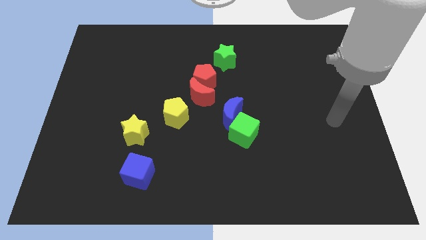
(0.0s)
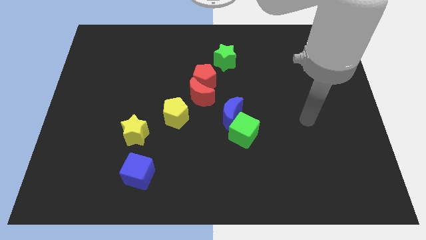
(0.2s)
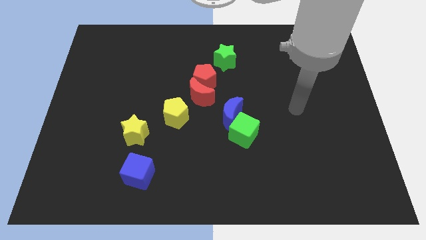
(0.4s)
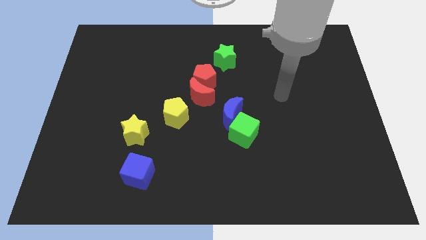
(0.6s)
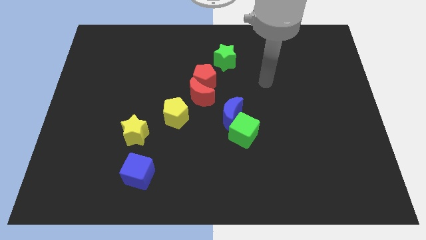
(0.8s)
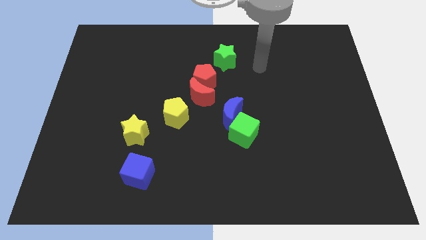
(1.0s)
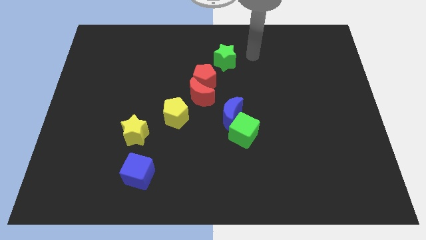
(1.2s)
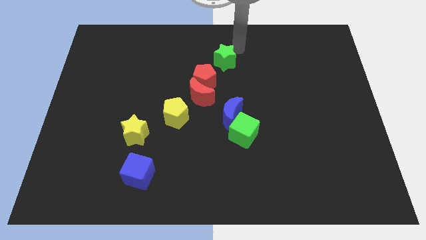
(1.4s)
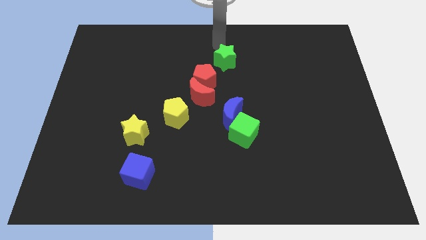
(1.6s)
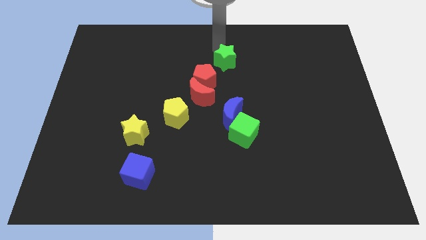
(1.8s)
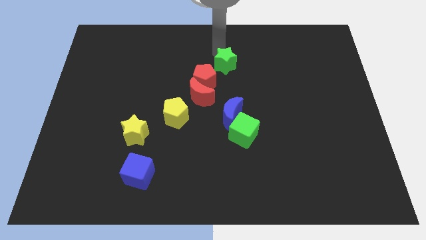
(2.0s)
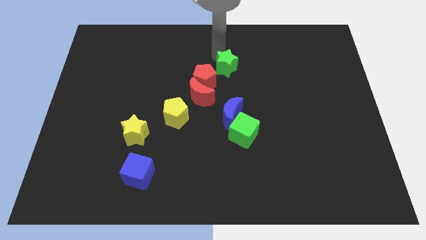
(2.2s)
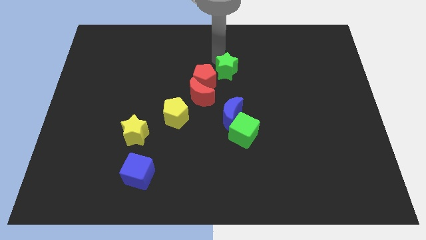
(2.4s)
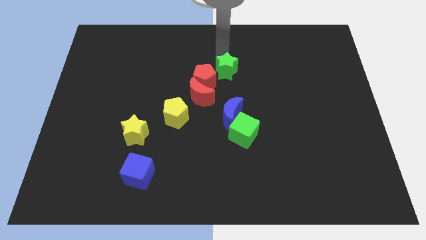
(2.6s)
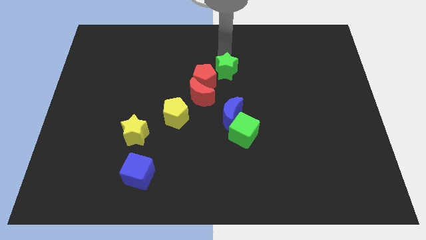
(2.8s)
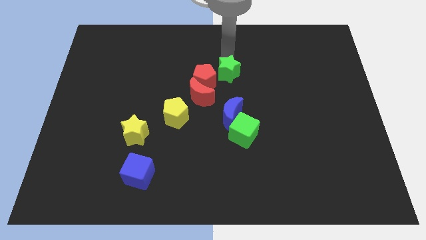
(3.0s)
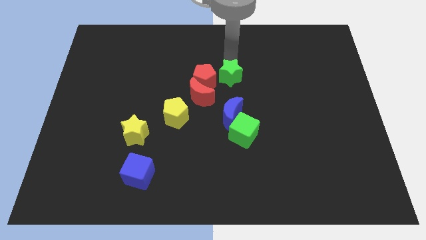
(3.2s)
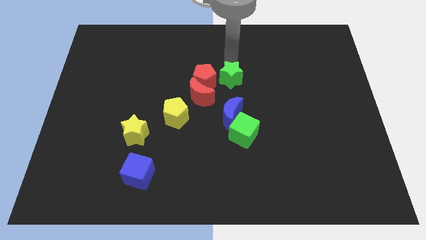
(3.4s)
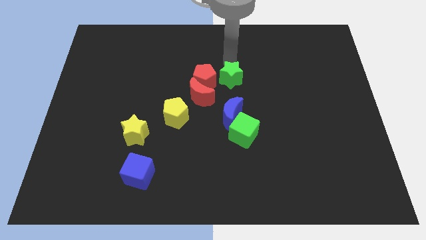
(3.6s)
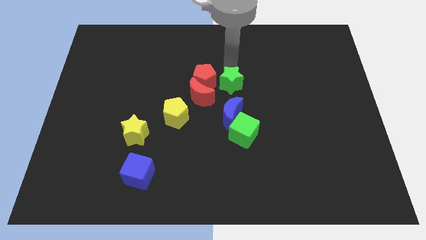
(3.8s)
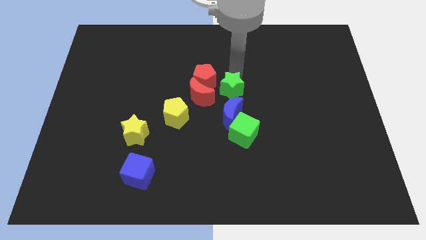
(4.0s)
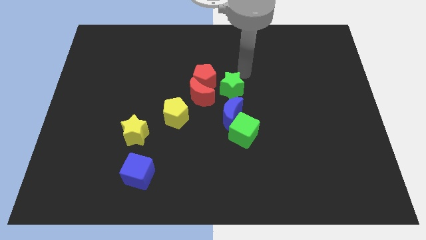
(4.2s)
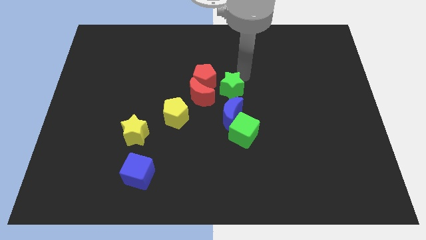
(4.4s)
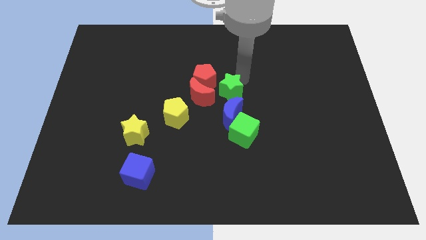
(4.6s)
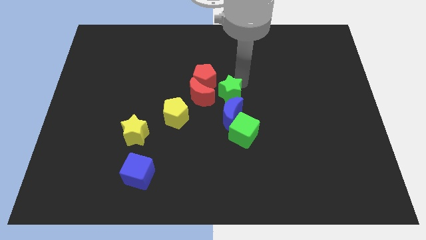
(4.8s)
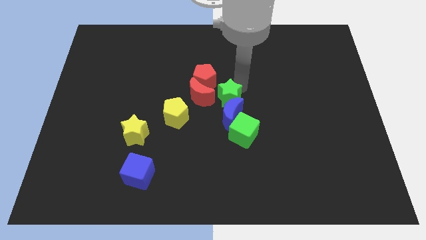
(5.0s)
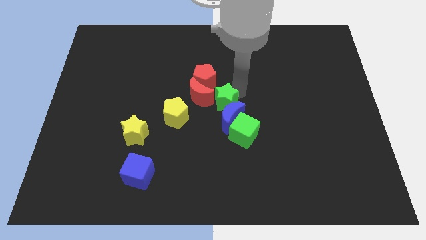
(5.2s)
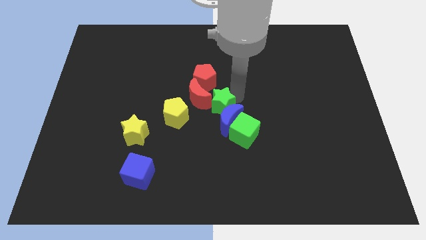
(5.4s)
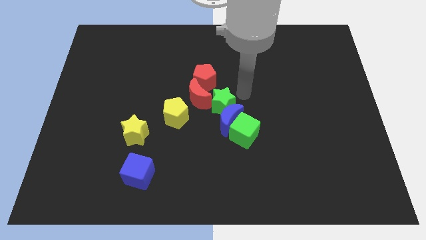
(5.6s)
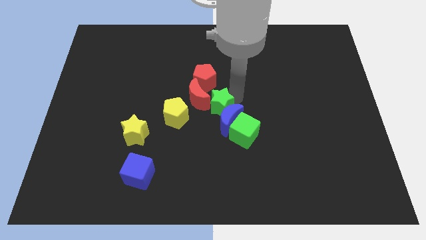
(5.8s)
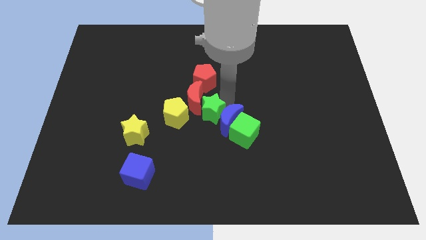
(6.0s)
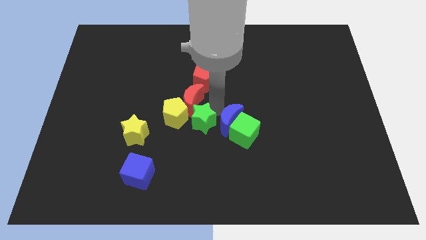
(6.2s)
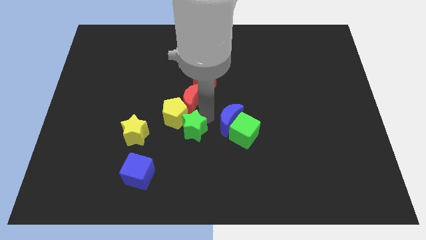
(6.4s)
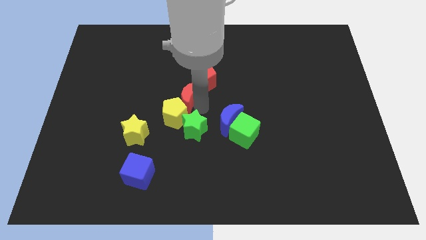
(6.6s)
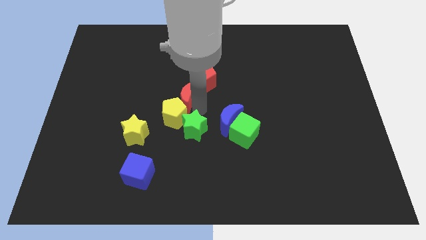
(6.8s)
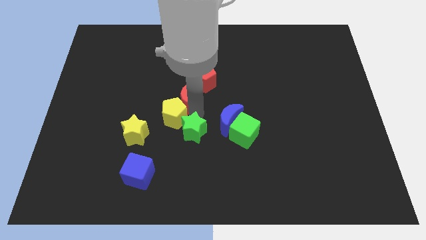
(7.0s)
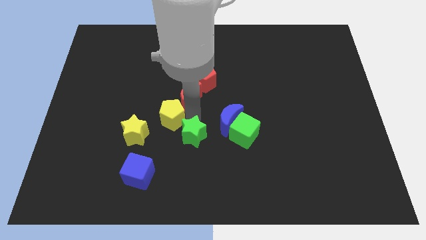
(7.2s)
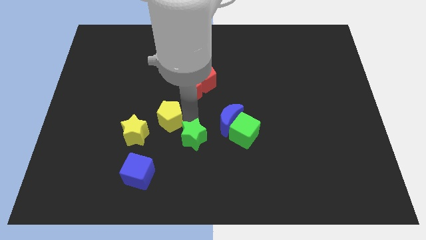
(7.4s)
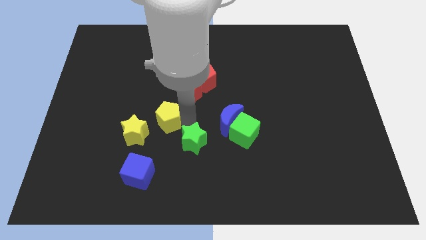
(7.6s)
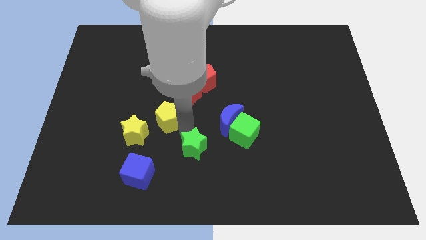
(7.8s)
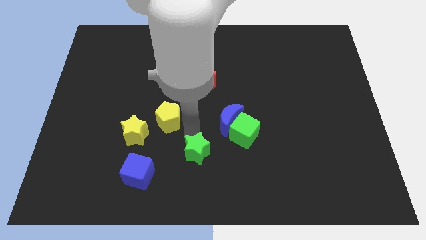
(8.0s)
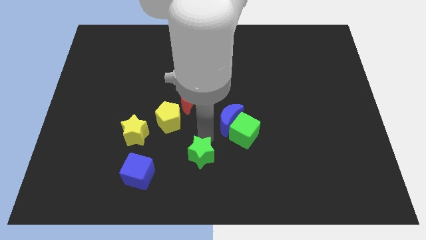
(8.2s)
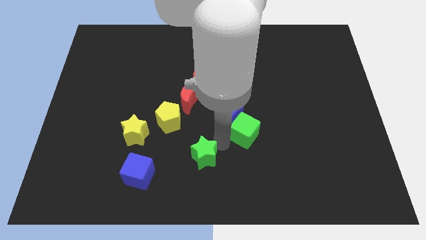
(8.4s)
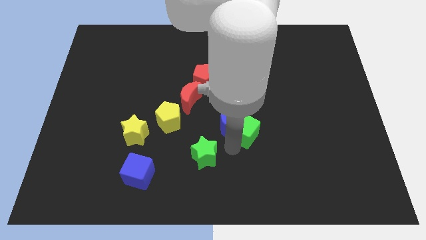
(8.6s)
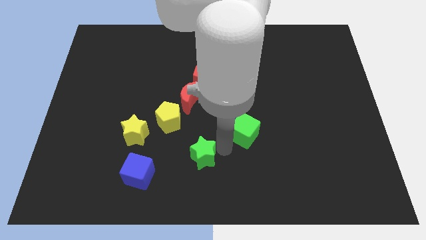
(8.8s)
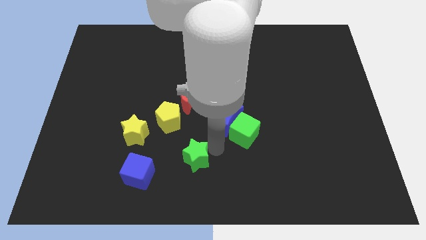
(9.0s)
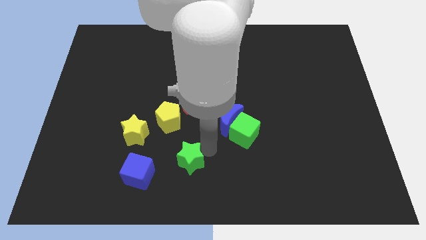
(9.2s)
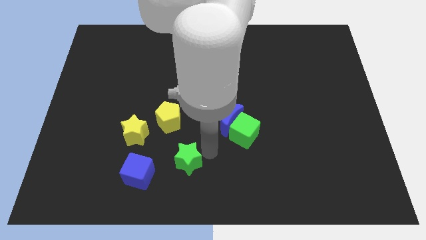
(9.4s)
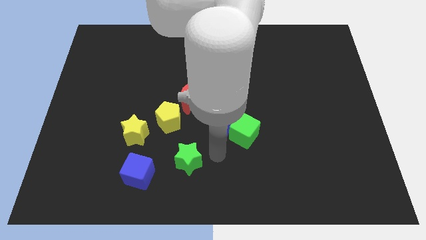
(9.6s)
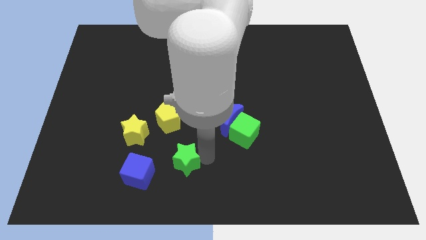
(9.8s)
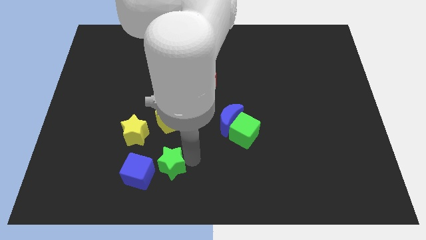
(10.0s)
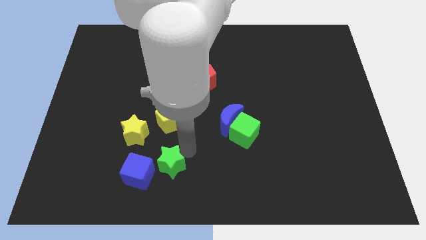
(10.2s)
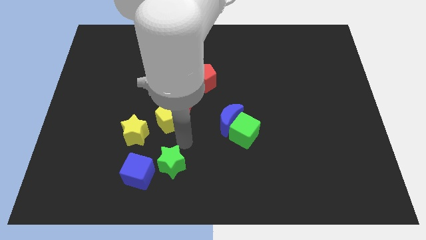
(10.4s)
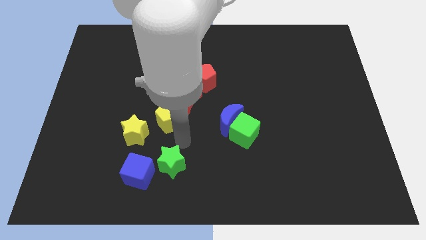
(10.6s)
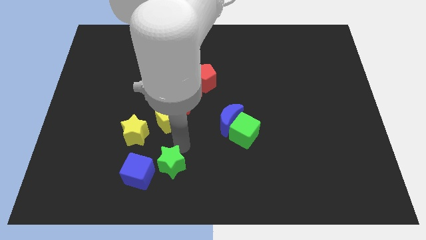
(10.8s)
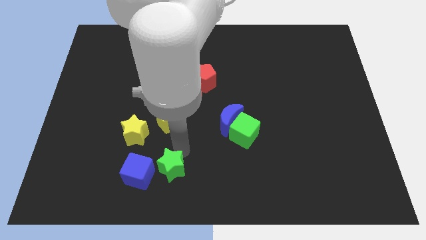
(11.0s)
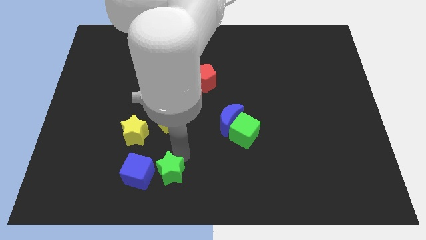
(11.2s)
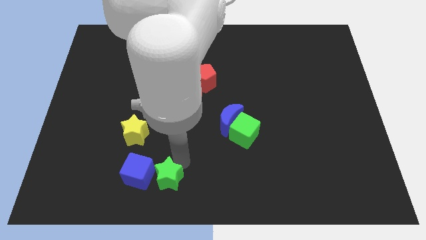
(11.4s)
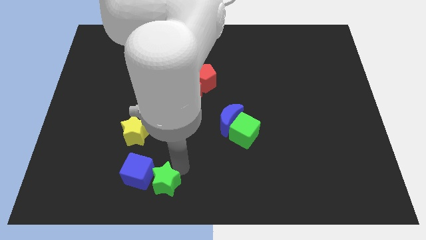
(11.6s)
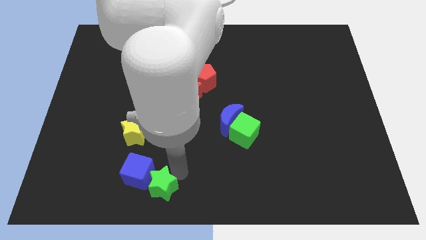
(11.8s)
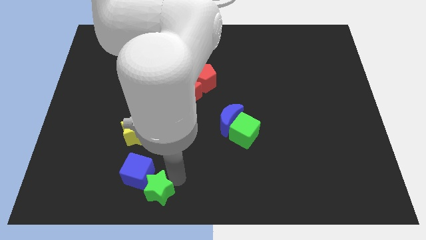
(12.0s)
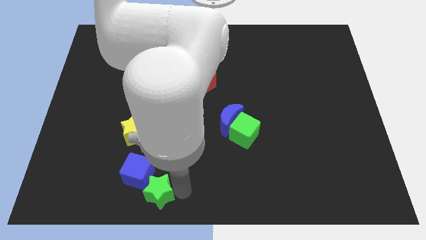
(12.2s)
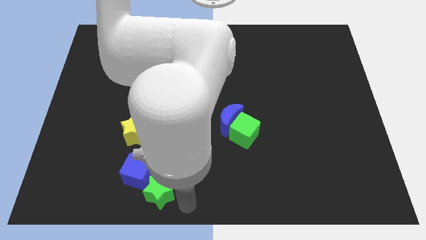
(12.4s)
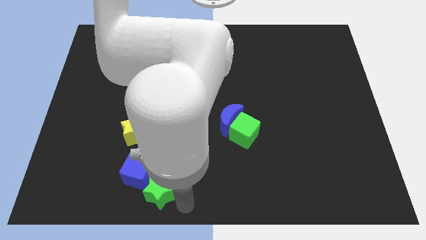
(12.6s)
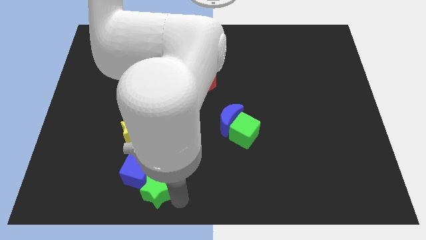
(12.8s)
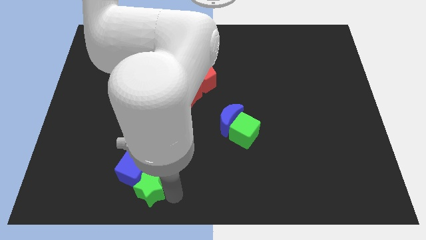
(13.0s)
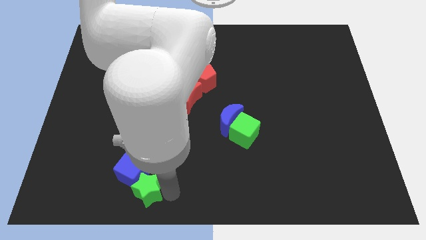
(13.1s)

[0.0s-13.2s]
move the green star to the bottom side of the yellow star
